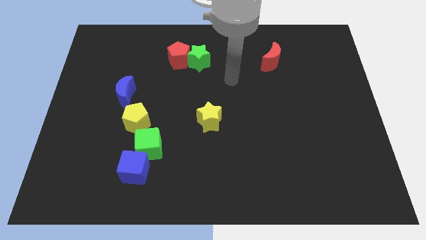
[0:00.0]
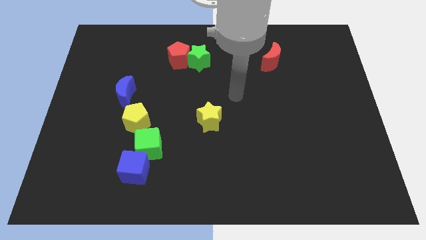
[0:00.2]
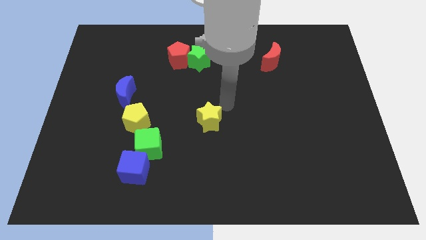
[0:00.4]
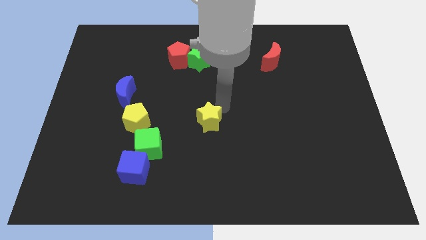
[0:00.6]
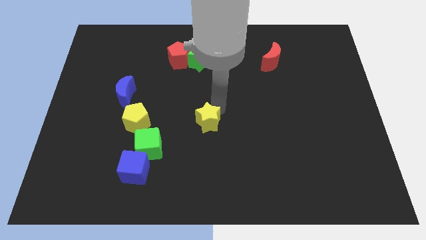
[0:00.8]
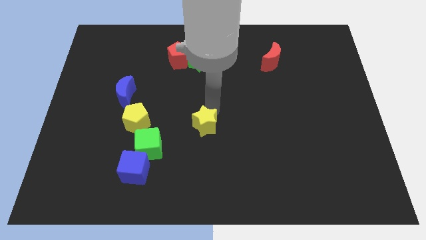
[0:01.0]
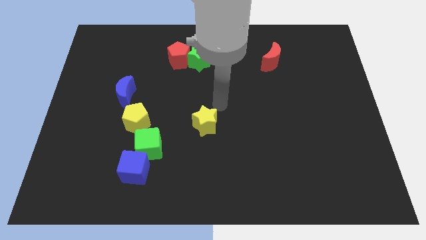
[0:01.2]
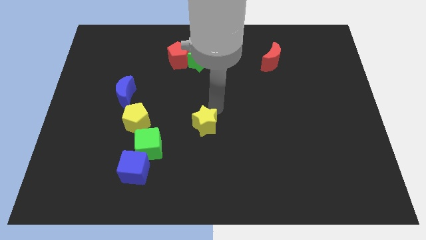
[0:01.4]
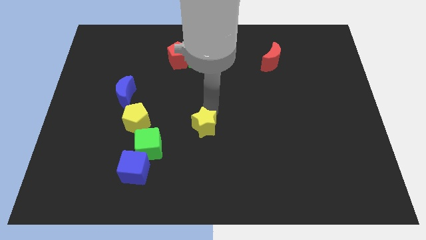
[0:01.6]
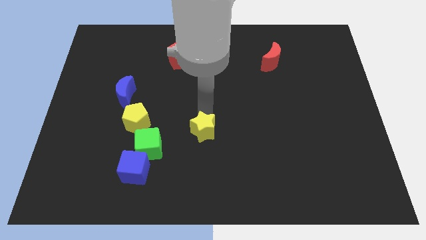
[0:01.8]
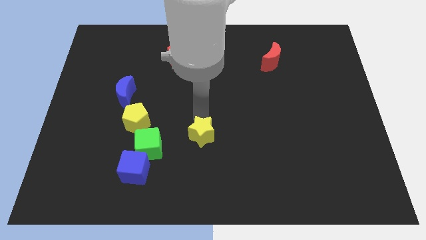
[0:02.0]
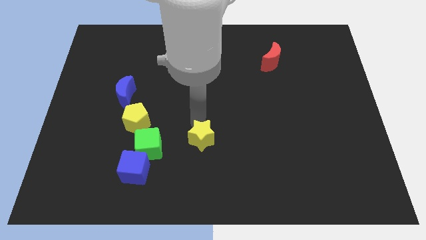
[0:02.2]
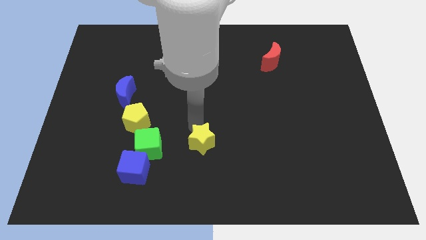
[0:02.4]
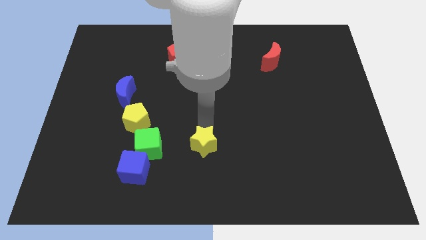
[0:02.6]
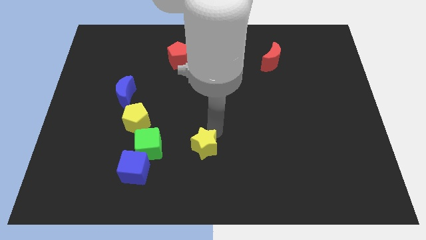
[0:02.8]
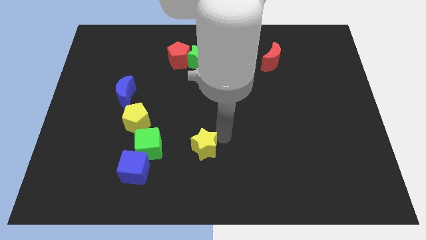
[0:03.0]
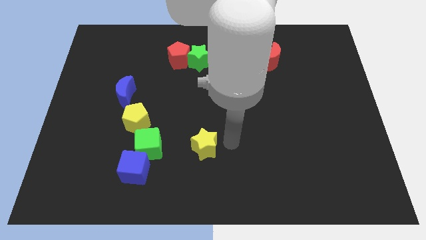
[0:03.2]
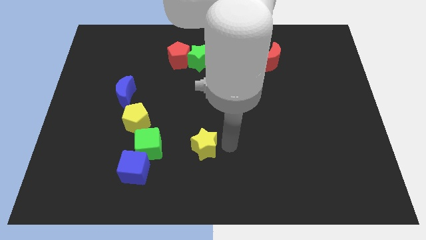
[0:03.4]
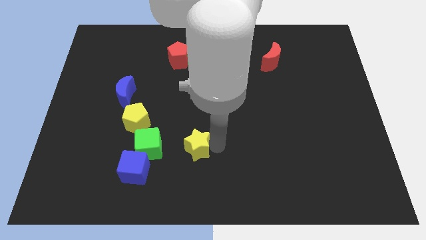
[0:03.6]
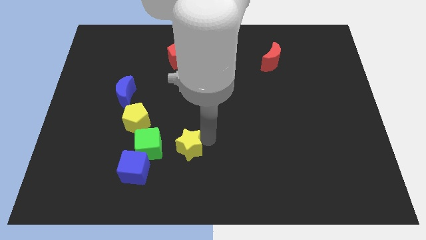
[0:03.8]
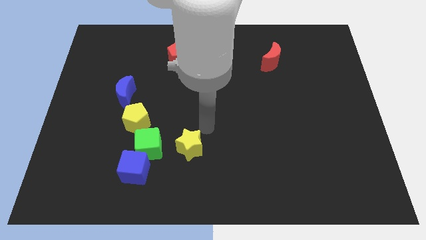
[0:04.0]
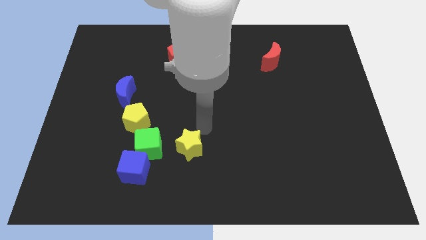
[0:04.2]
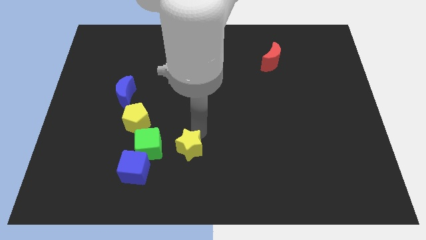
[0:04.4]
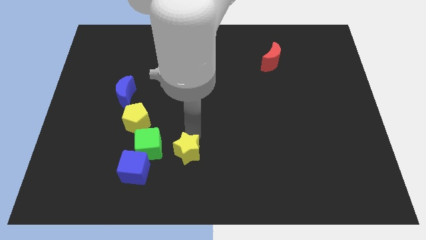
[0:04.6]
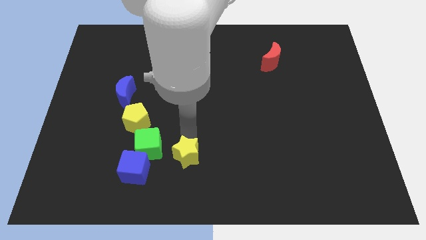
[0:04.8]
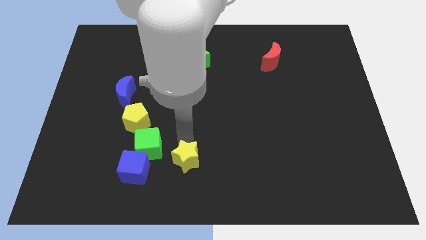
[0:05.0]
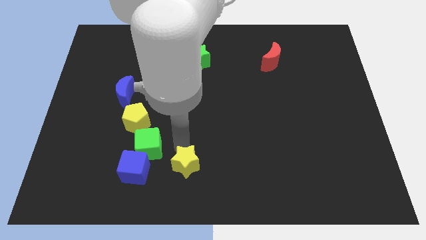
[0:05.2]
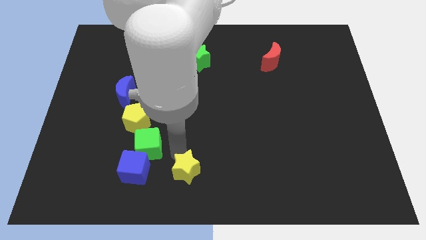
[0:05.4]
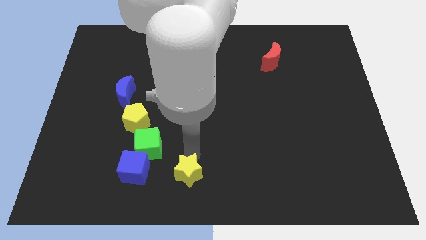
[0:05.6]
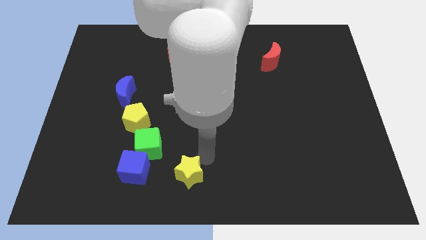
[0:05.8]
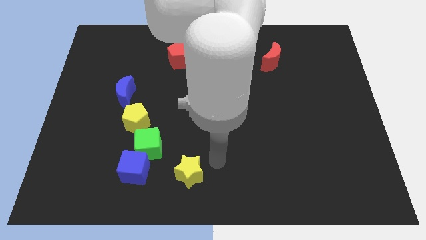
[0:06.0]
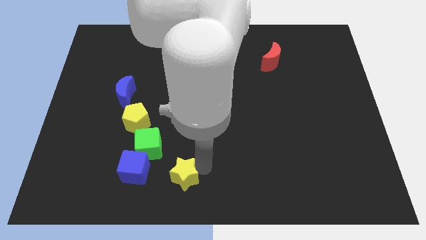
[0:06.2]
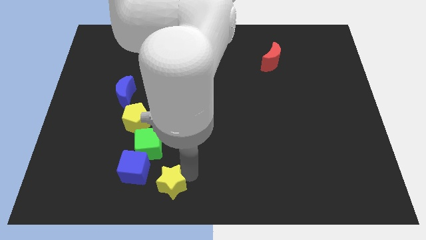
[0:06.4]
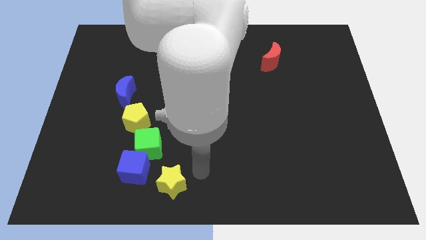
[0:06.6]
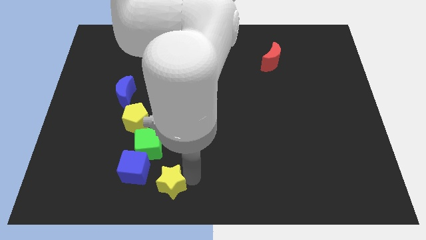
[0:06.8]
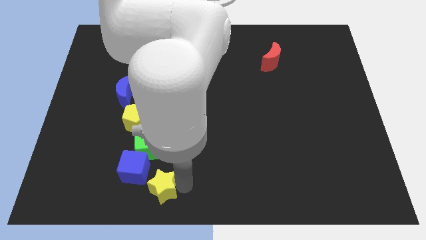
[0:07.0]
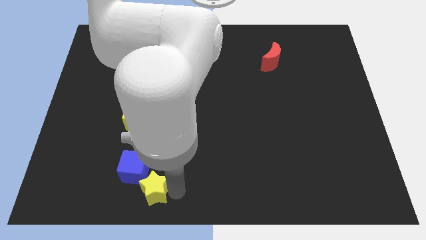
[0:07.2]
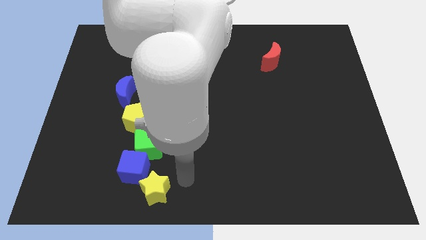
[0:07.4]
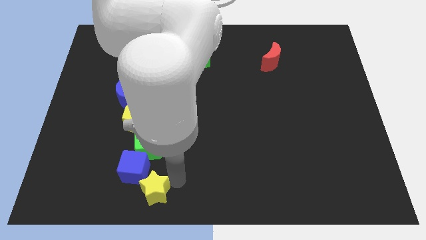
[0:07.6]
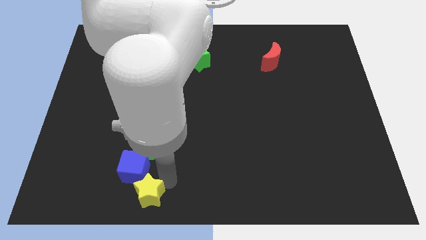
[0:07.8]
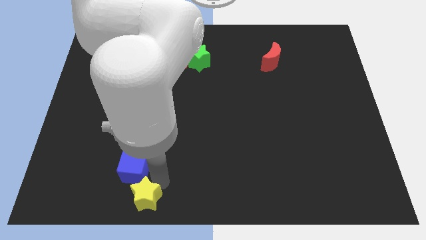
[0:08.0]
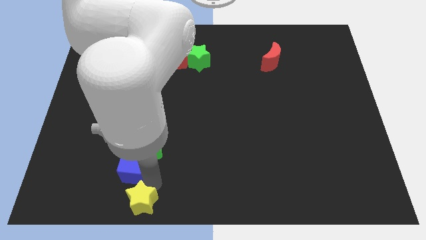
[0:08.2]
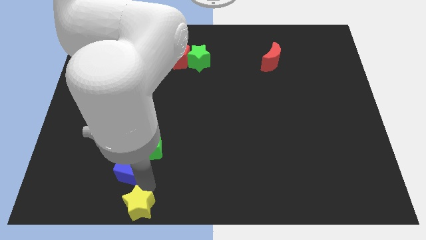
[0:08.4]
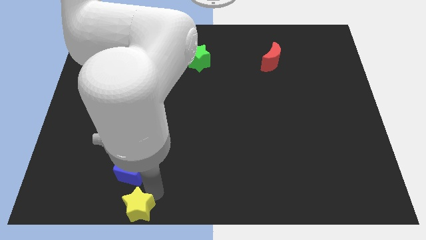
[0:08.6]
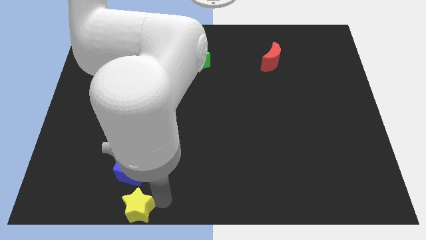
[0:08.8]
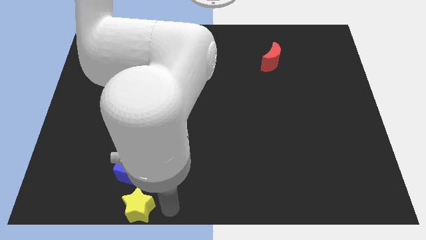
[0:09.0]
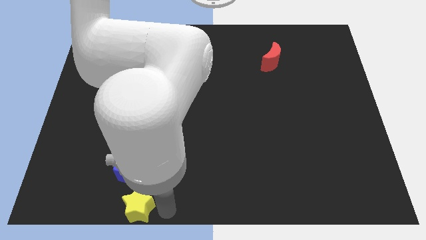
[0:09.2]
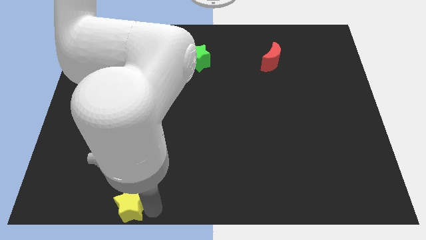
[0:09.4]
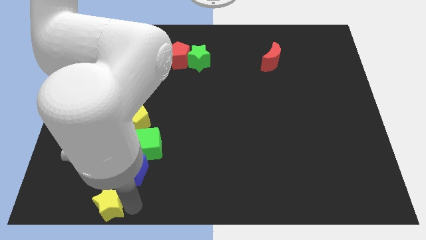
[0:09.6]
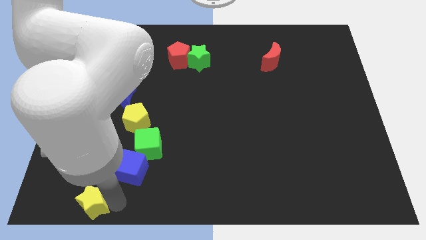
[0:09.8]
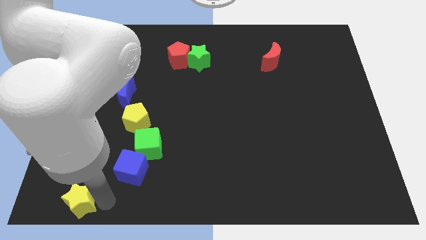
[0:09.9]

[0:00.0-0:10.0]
push the yellow star to the bottom left corner

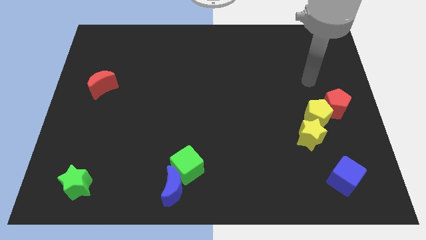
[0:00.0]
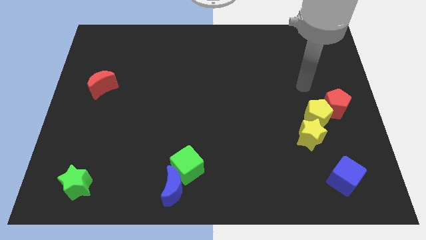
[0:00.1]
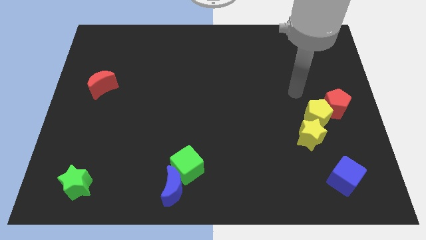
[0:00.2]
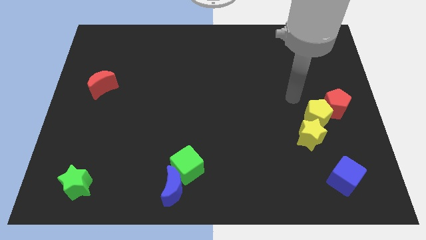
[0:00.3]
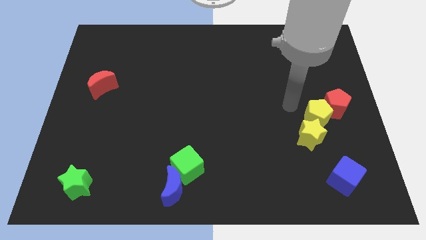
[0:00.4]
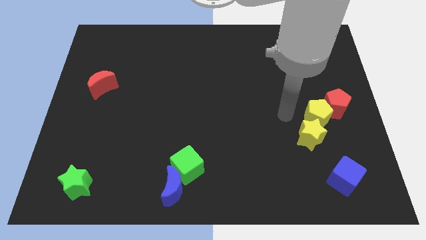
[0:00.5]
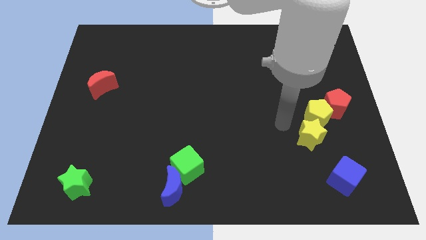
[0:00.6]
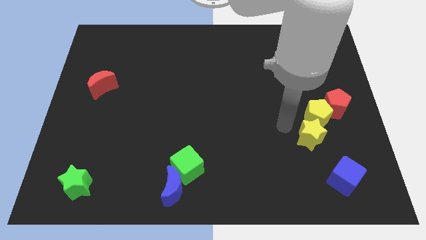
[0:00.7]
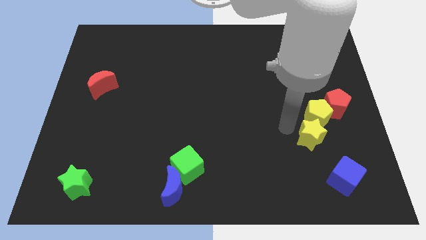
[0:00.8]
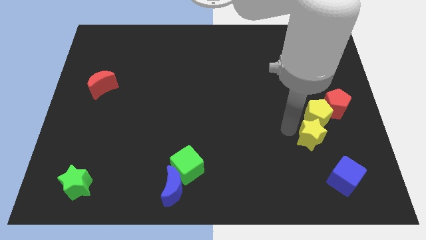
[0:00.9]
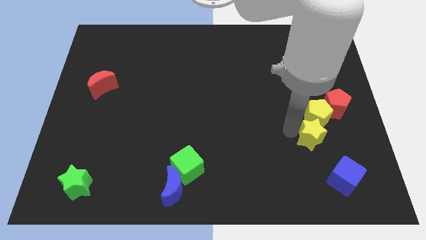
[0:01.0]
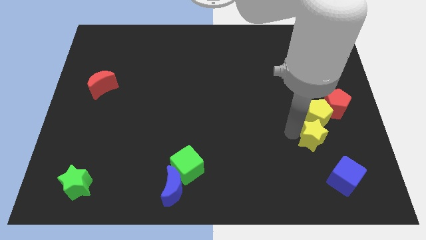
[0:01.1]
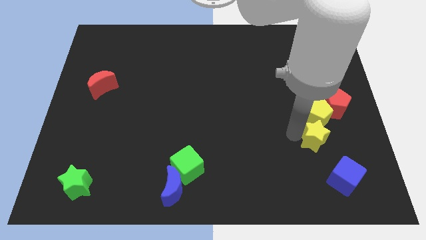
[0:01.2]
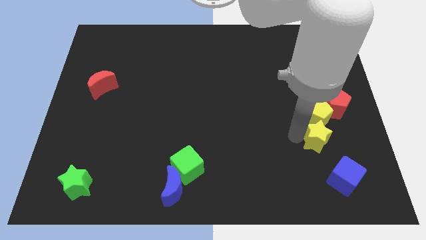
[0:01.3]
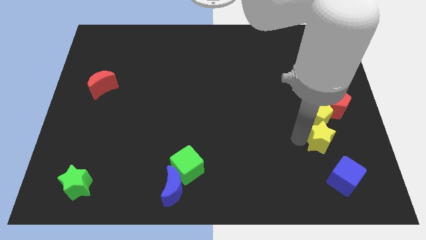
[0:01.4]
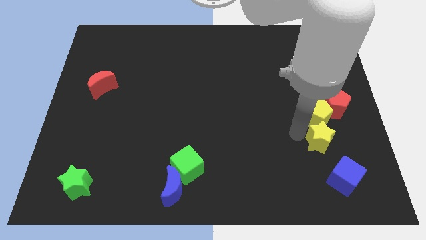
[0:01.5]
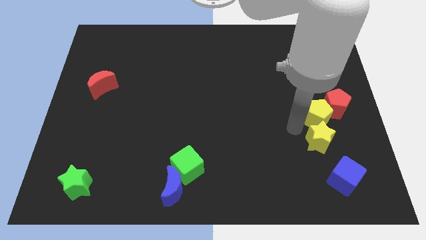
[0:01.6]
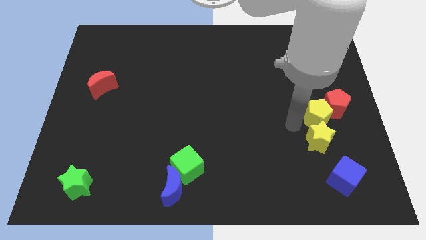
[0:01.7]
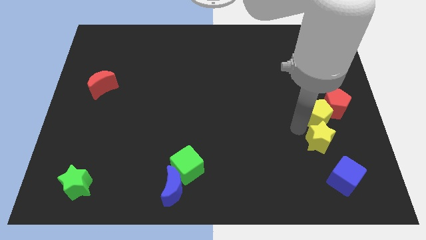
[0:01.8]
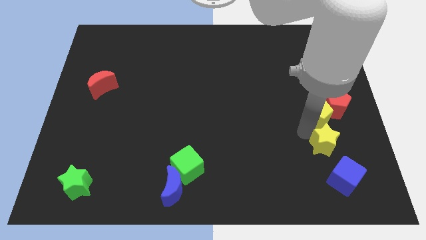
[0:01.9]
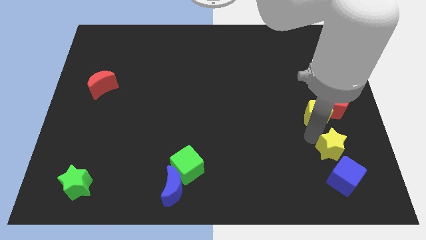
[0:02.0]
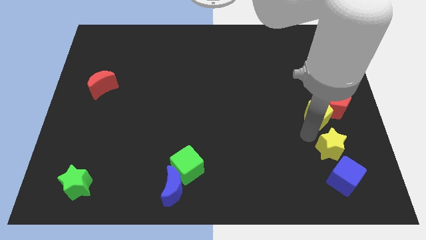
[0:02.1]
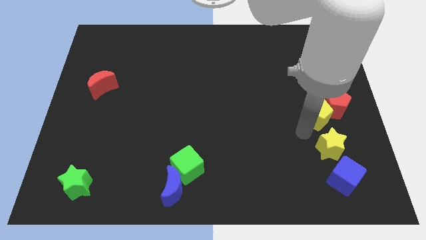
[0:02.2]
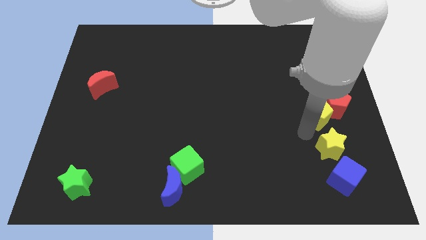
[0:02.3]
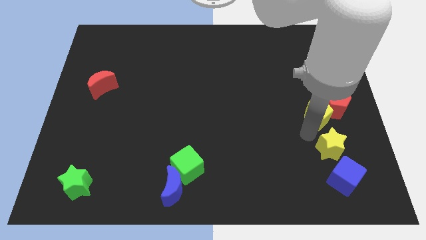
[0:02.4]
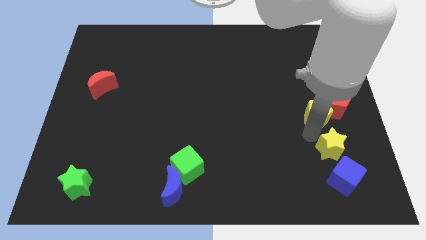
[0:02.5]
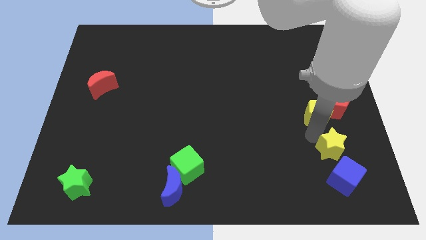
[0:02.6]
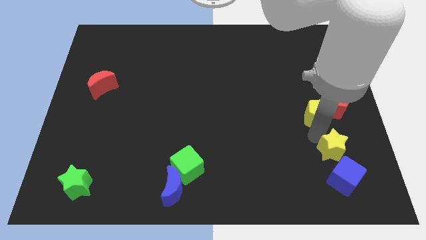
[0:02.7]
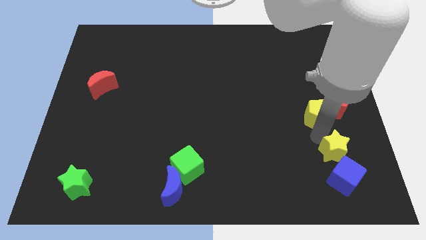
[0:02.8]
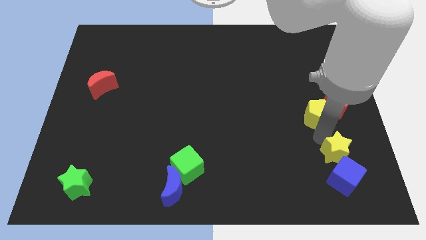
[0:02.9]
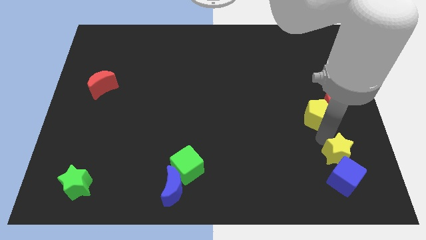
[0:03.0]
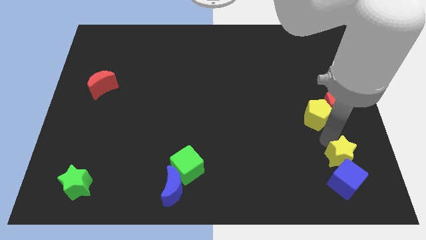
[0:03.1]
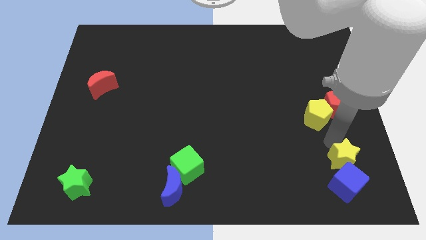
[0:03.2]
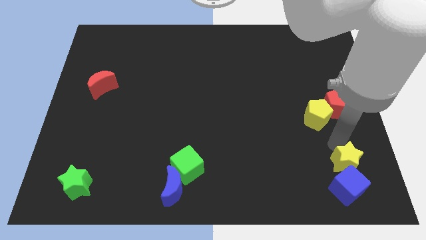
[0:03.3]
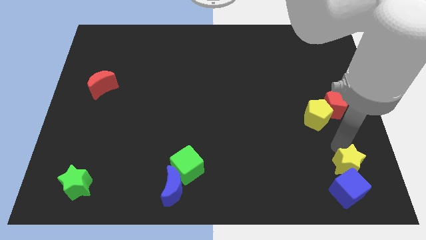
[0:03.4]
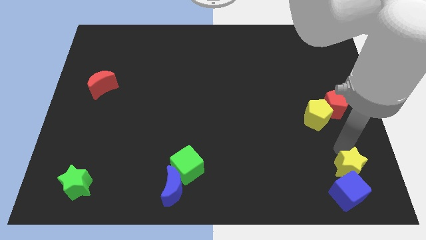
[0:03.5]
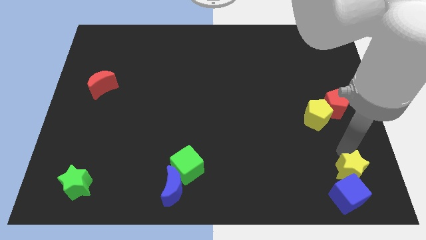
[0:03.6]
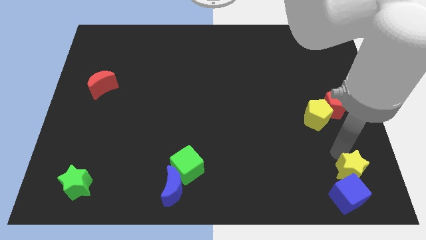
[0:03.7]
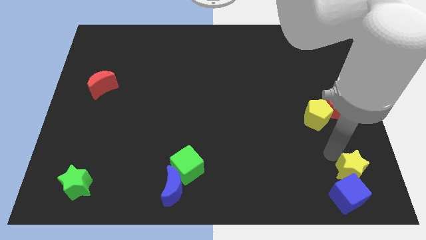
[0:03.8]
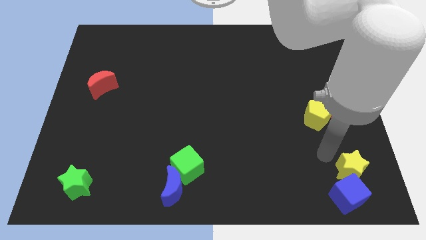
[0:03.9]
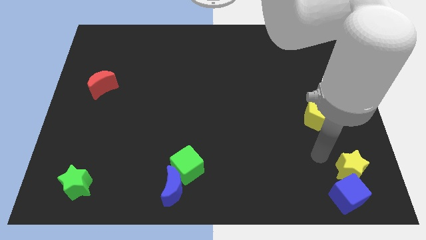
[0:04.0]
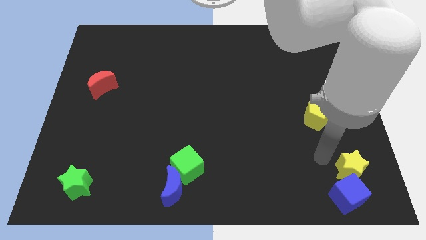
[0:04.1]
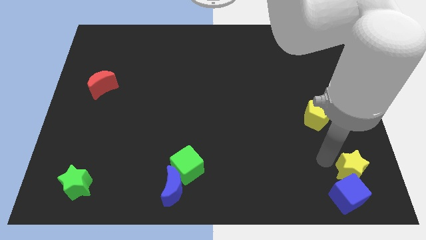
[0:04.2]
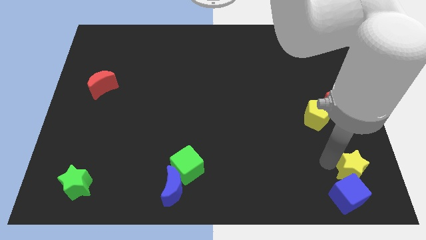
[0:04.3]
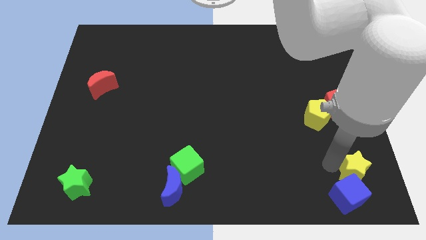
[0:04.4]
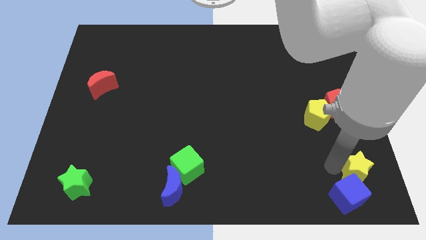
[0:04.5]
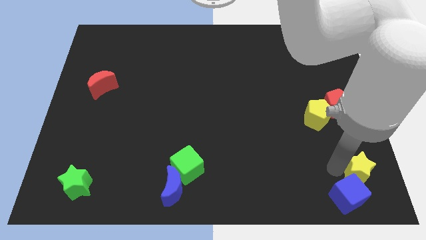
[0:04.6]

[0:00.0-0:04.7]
move the yellow star to the bottom right
